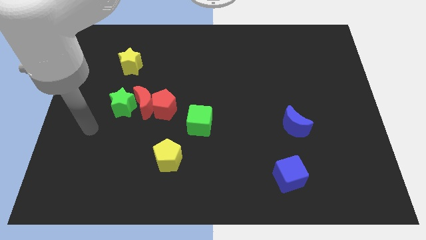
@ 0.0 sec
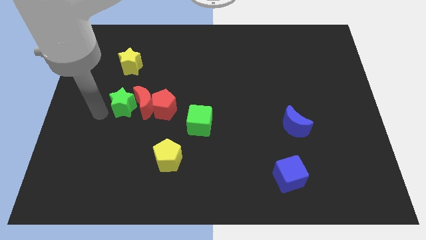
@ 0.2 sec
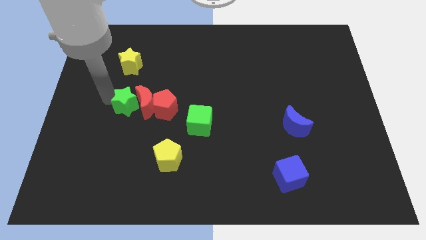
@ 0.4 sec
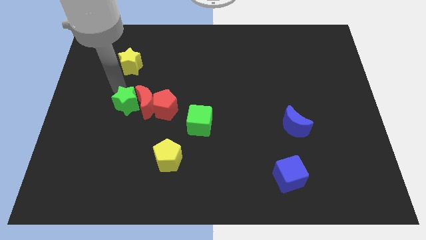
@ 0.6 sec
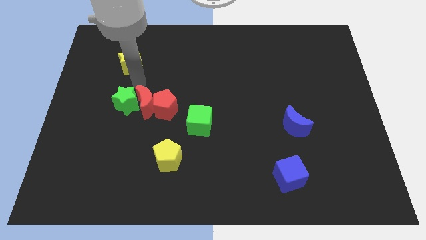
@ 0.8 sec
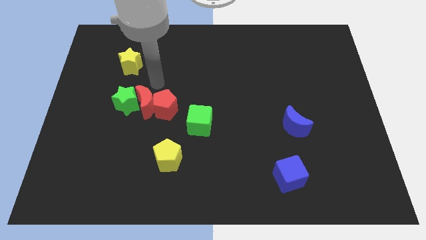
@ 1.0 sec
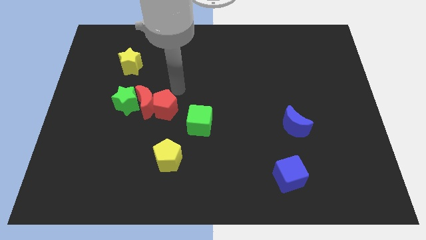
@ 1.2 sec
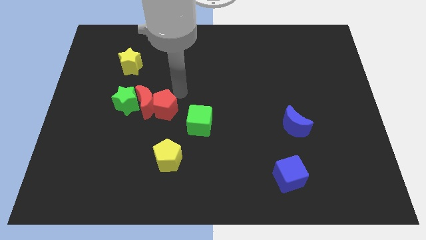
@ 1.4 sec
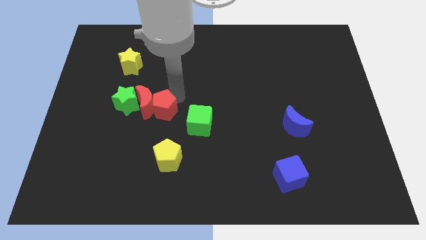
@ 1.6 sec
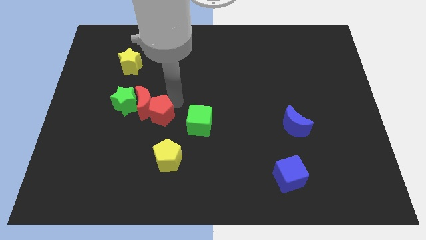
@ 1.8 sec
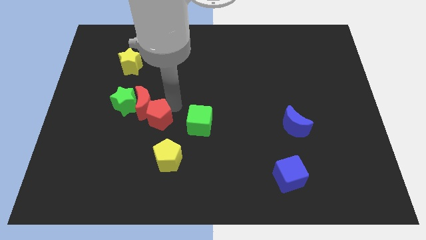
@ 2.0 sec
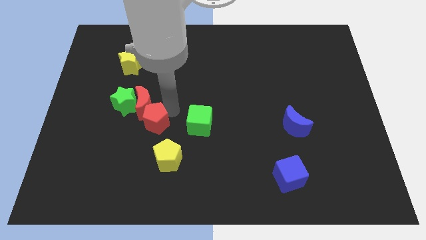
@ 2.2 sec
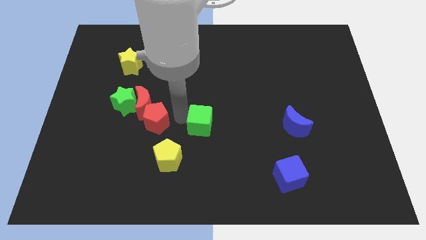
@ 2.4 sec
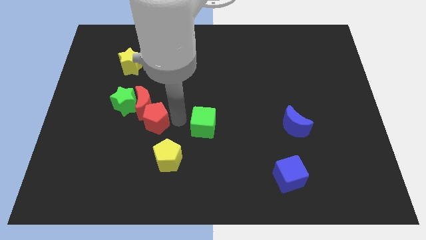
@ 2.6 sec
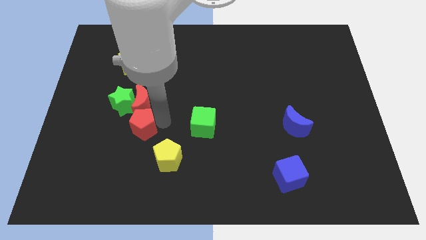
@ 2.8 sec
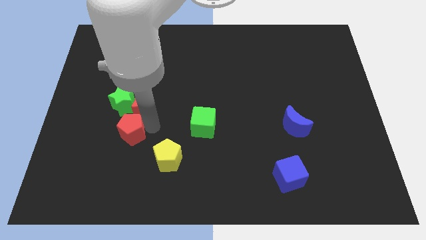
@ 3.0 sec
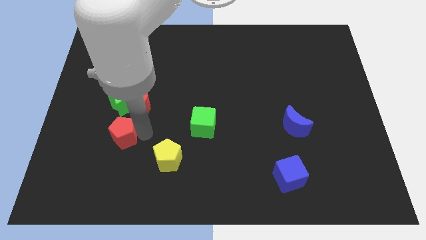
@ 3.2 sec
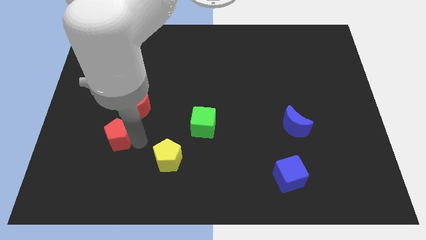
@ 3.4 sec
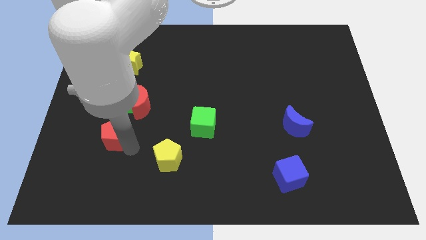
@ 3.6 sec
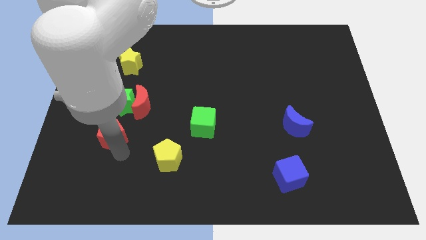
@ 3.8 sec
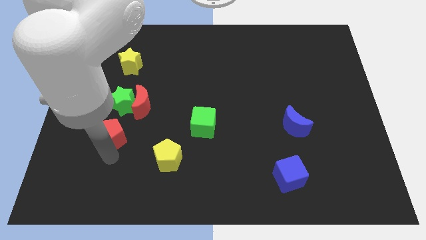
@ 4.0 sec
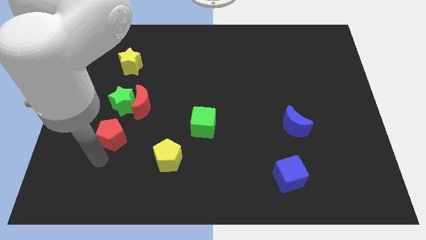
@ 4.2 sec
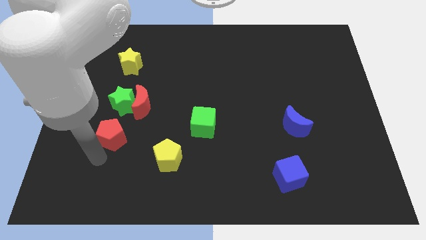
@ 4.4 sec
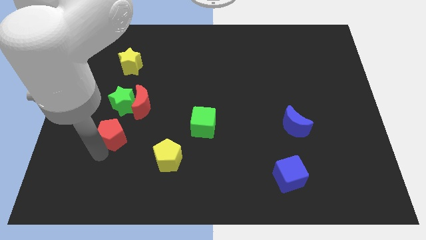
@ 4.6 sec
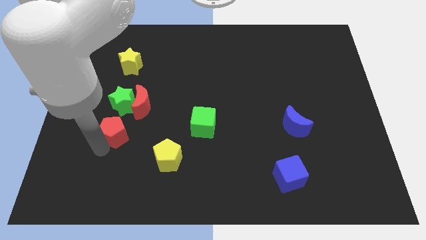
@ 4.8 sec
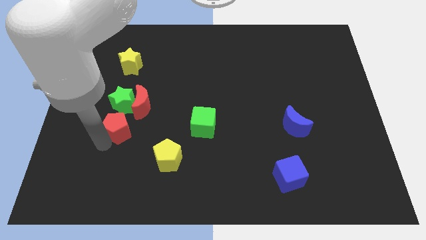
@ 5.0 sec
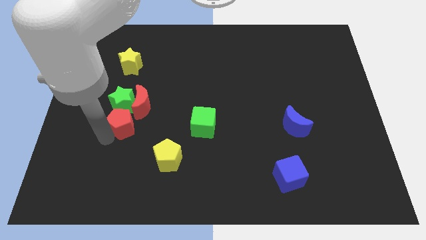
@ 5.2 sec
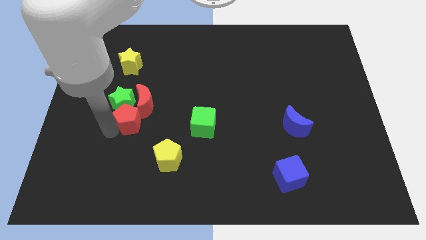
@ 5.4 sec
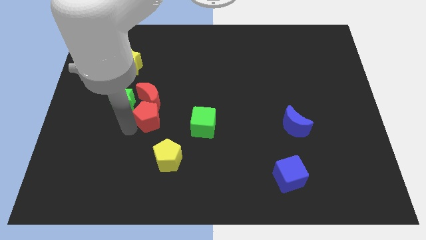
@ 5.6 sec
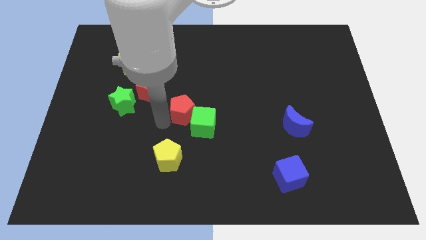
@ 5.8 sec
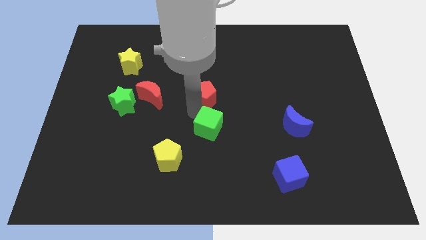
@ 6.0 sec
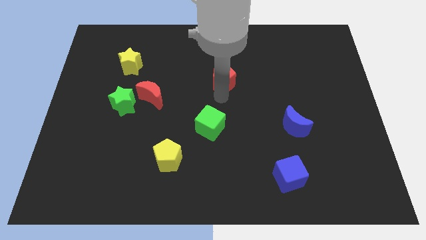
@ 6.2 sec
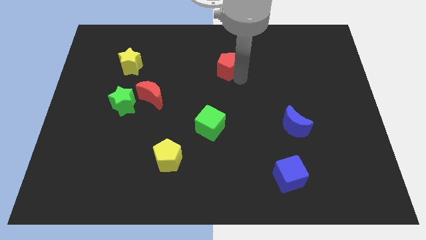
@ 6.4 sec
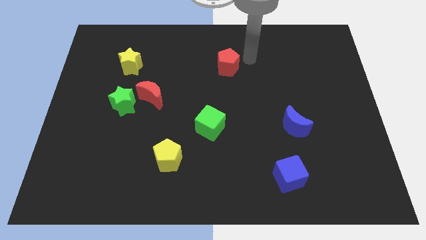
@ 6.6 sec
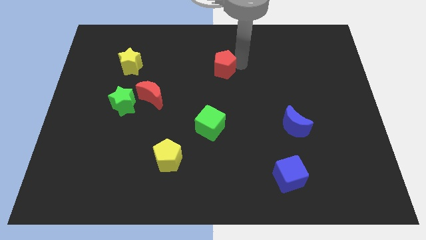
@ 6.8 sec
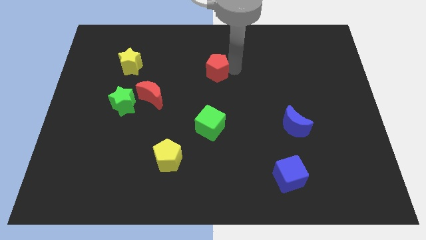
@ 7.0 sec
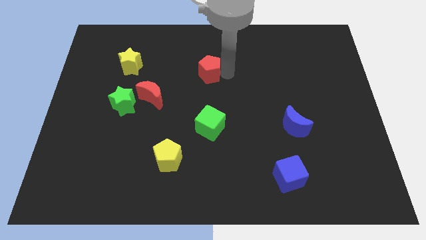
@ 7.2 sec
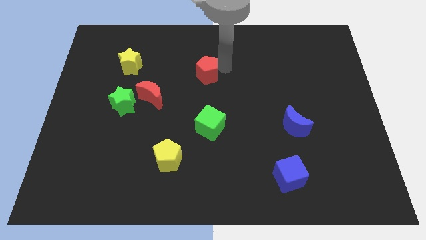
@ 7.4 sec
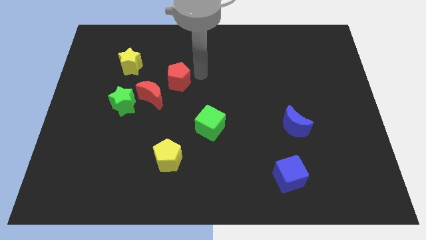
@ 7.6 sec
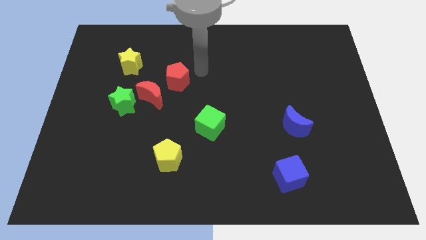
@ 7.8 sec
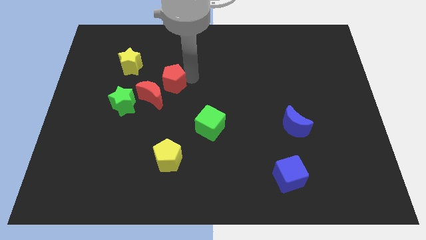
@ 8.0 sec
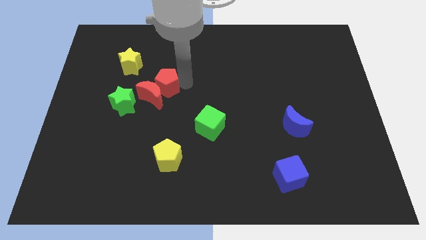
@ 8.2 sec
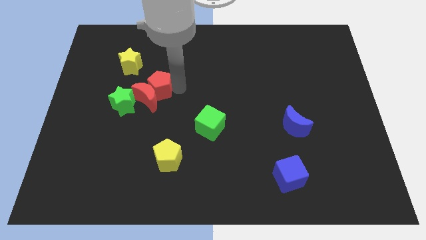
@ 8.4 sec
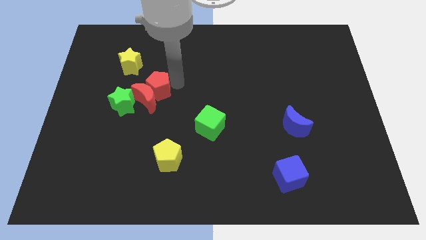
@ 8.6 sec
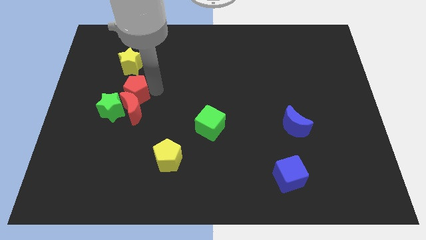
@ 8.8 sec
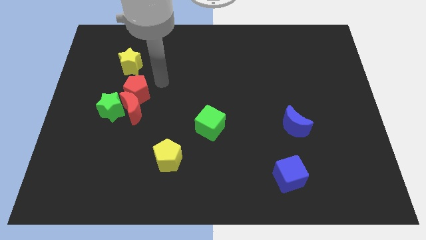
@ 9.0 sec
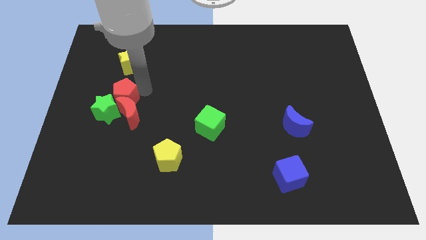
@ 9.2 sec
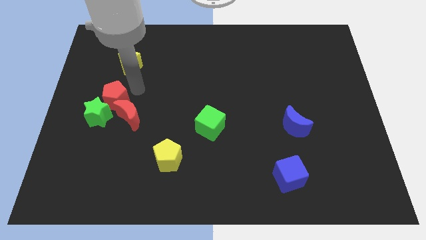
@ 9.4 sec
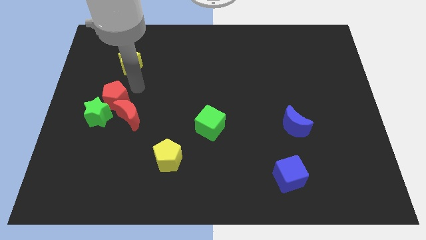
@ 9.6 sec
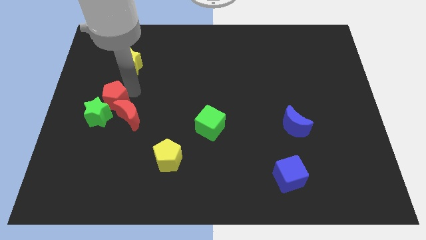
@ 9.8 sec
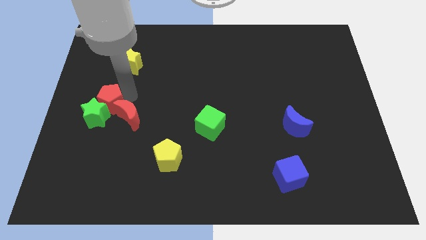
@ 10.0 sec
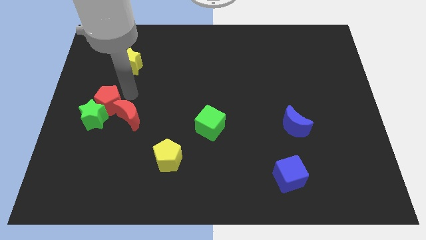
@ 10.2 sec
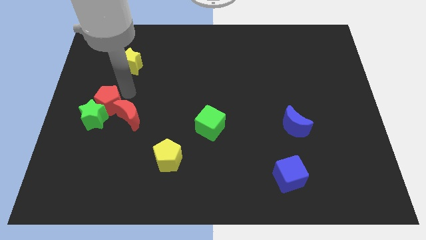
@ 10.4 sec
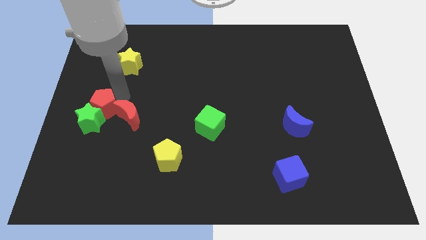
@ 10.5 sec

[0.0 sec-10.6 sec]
move the red pentagon to the center left

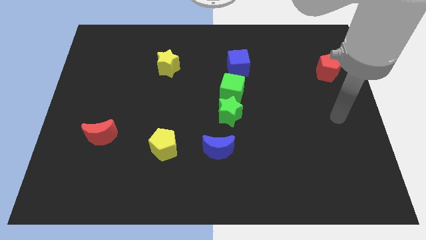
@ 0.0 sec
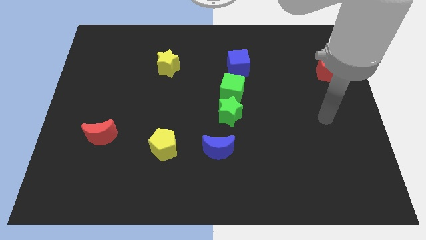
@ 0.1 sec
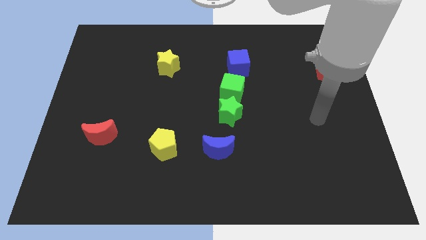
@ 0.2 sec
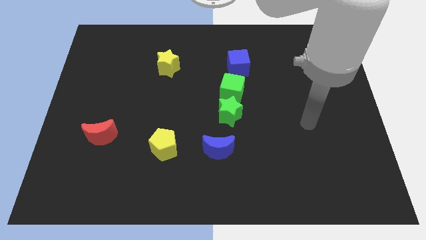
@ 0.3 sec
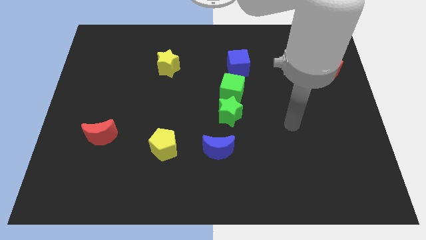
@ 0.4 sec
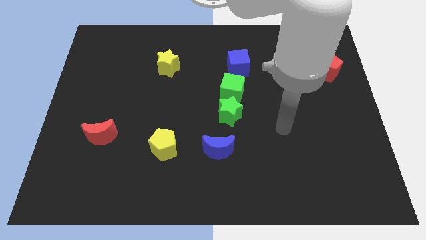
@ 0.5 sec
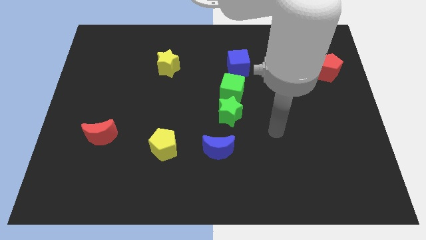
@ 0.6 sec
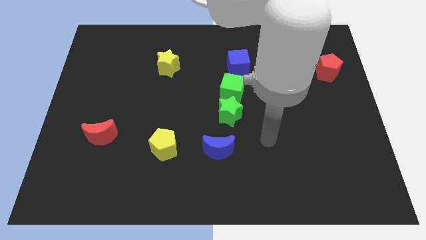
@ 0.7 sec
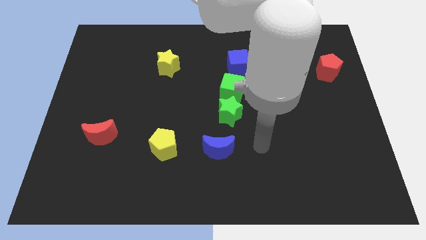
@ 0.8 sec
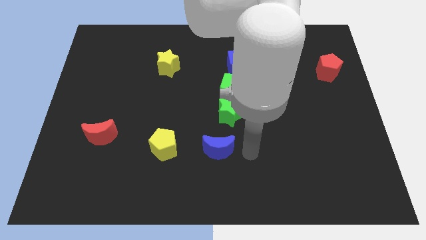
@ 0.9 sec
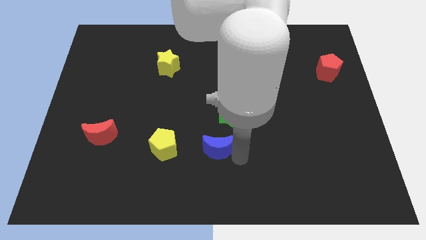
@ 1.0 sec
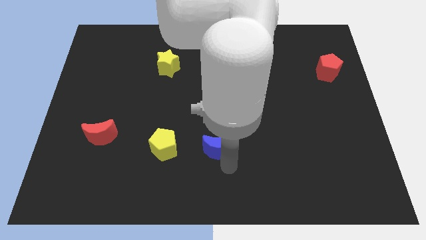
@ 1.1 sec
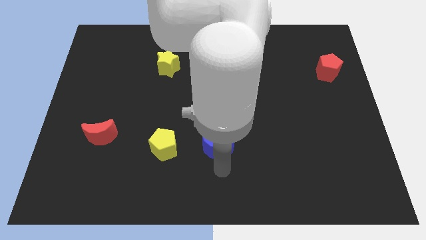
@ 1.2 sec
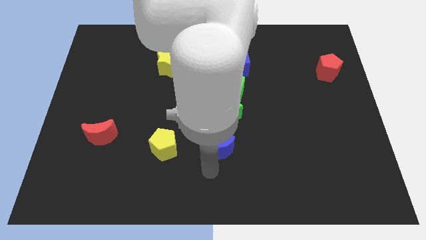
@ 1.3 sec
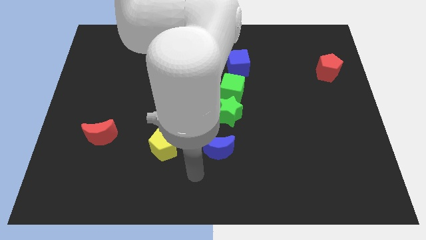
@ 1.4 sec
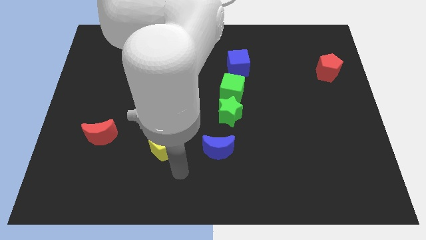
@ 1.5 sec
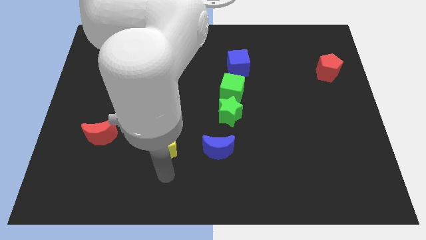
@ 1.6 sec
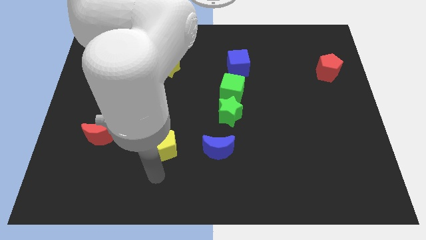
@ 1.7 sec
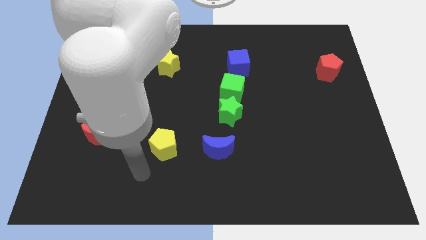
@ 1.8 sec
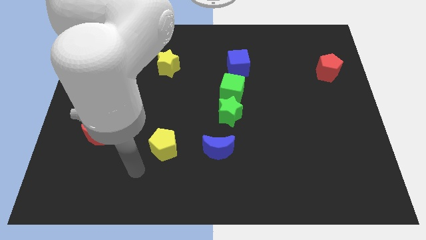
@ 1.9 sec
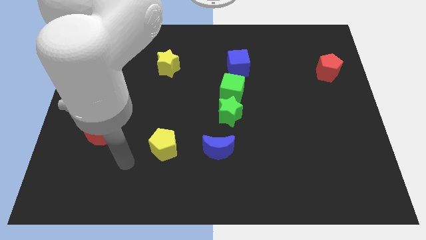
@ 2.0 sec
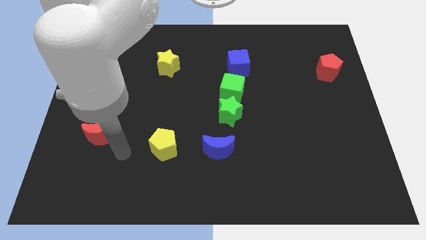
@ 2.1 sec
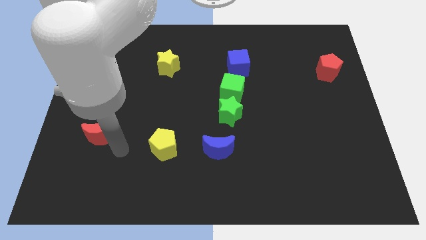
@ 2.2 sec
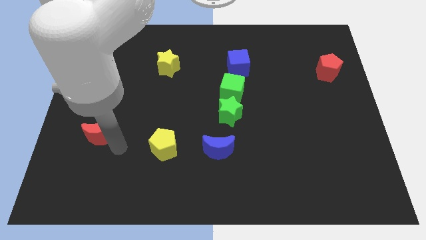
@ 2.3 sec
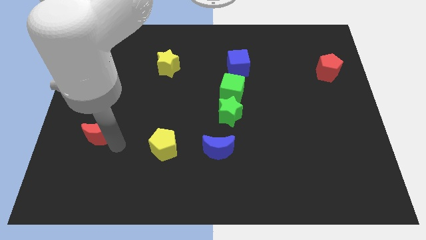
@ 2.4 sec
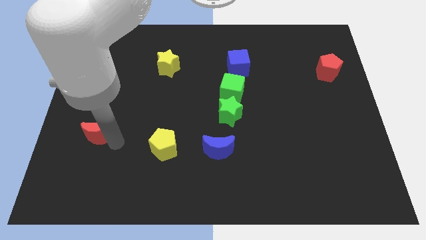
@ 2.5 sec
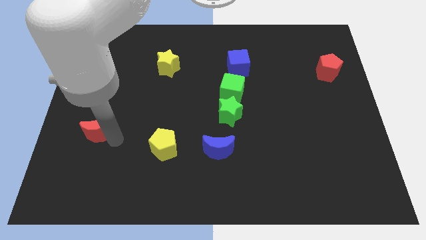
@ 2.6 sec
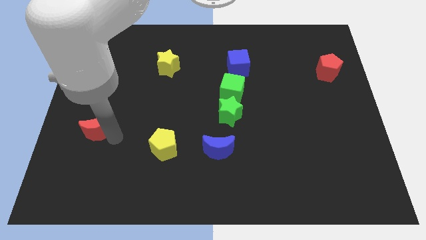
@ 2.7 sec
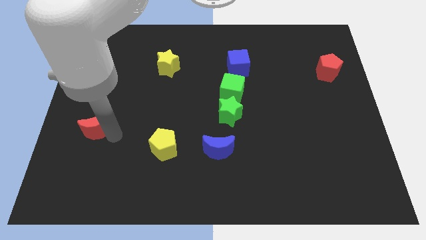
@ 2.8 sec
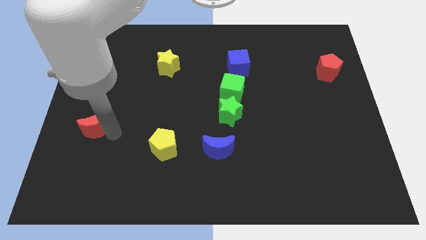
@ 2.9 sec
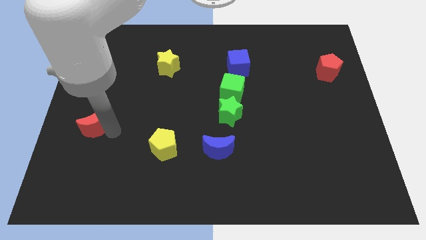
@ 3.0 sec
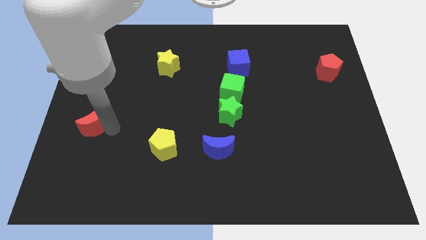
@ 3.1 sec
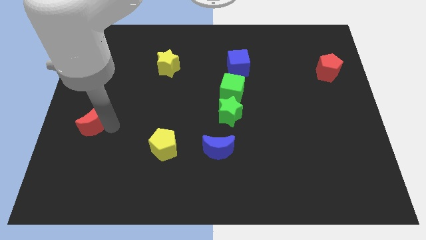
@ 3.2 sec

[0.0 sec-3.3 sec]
slide the red moon to the left side of the board
